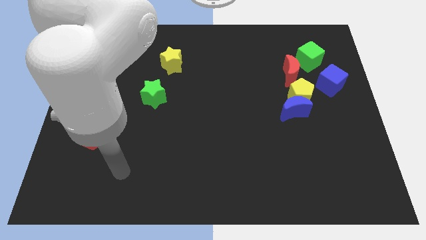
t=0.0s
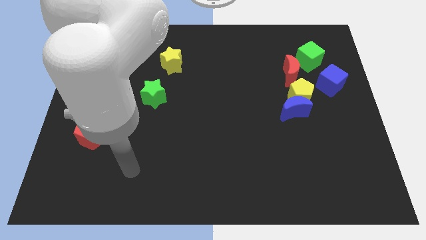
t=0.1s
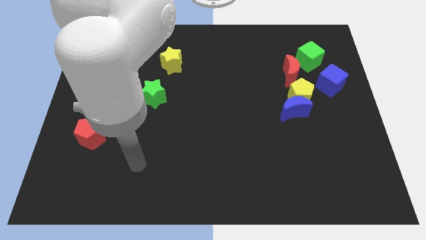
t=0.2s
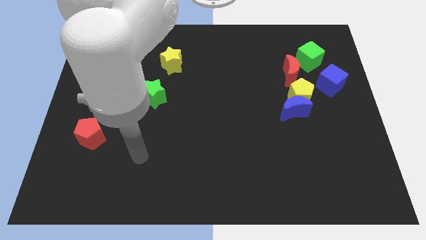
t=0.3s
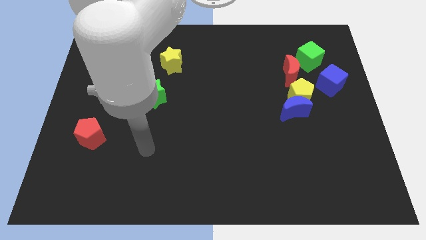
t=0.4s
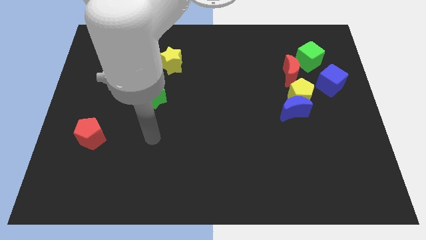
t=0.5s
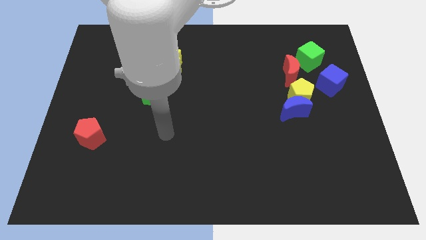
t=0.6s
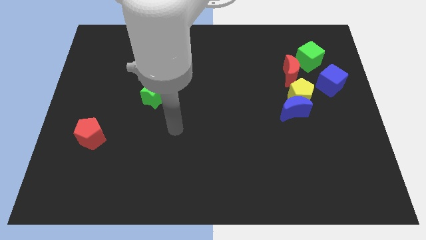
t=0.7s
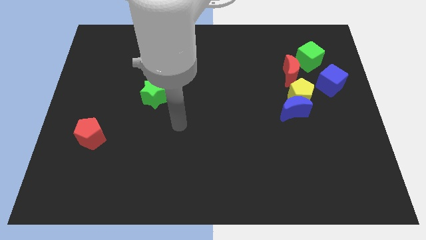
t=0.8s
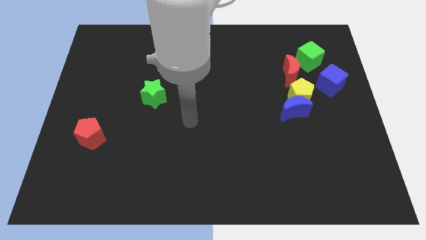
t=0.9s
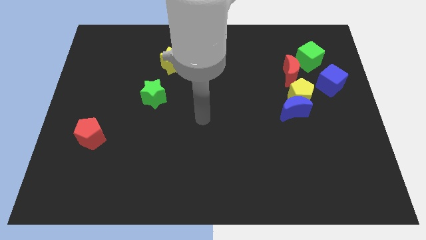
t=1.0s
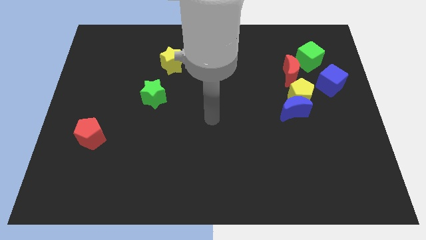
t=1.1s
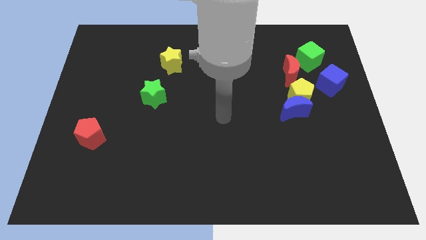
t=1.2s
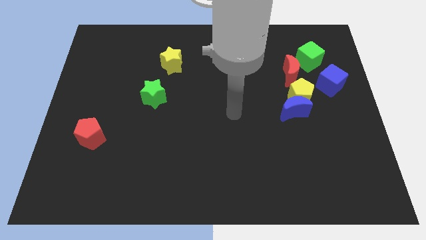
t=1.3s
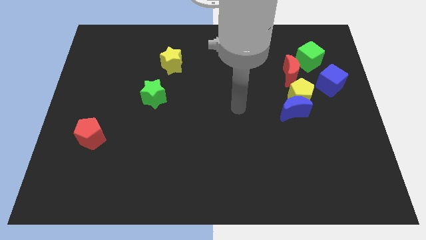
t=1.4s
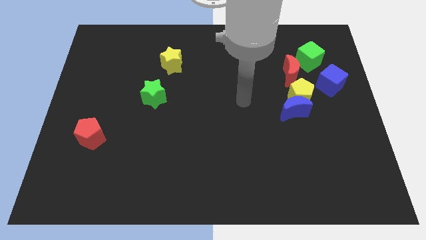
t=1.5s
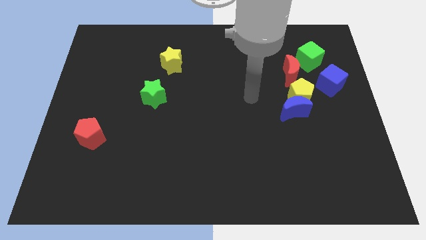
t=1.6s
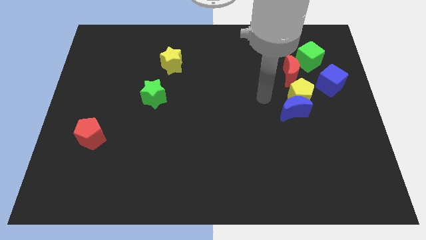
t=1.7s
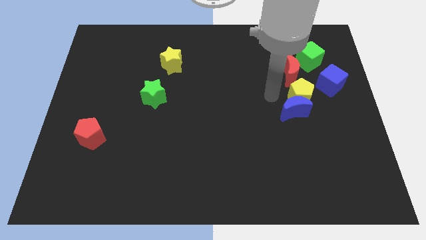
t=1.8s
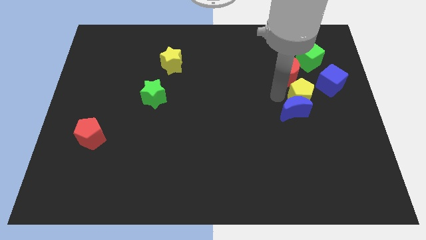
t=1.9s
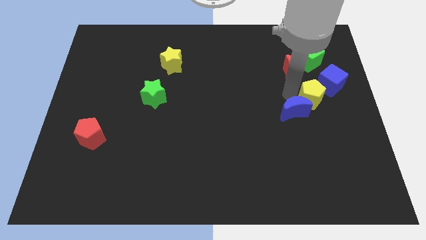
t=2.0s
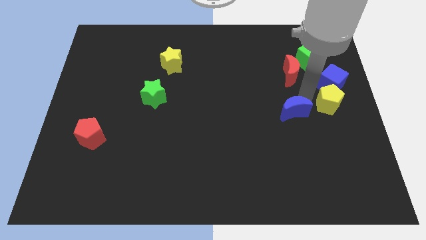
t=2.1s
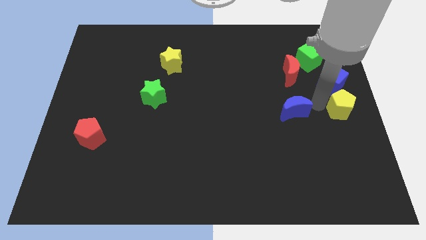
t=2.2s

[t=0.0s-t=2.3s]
pull the blue moon apart from the yellow pentagon

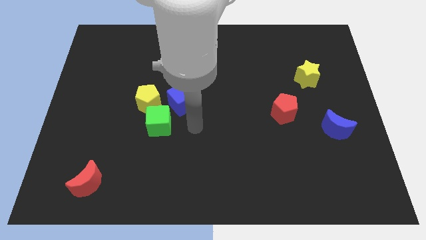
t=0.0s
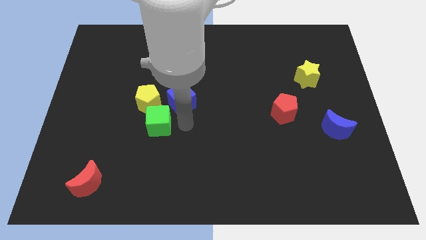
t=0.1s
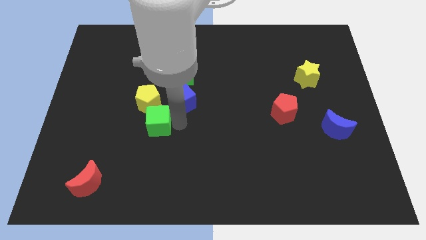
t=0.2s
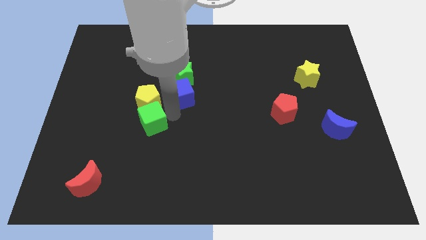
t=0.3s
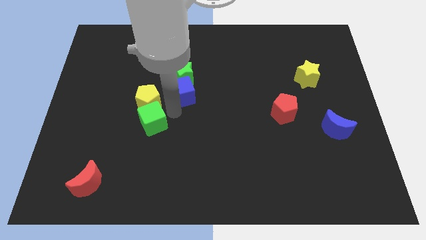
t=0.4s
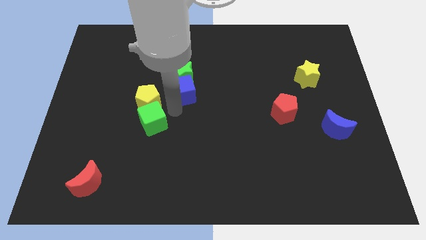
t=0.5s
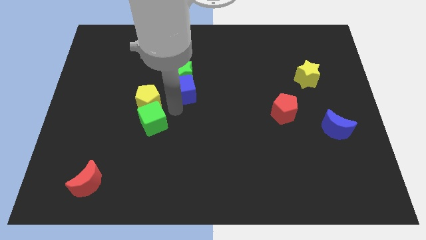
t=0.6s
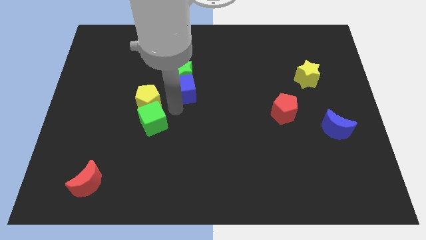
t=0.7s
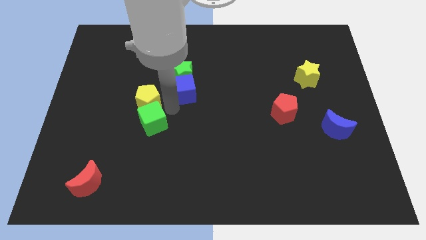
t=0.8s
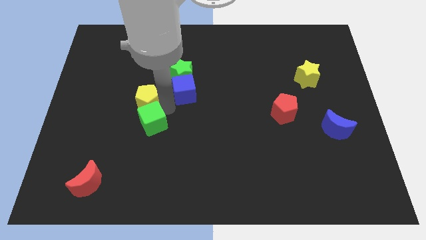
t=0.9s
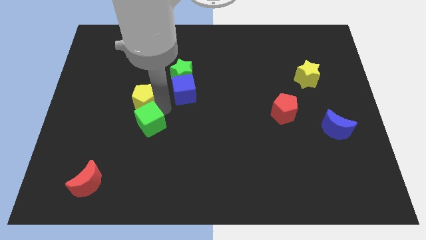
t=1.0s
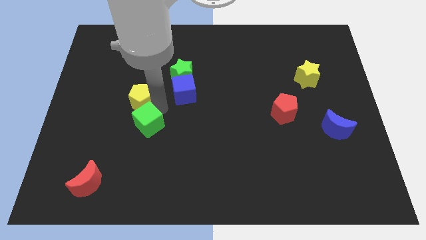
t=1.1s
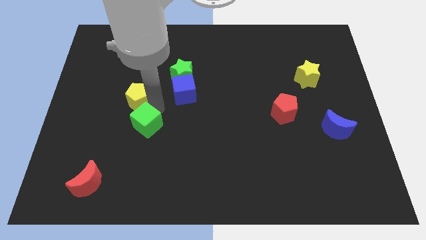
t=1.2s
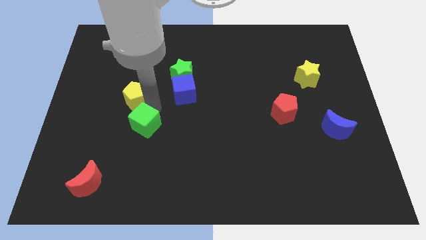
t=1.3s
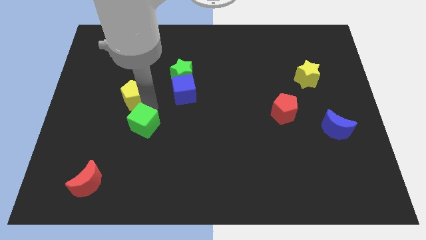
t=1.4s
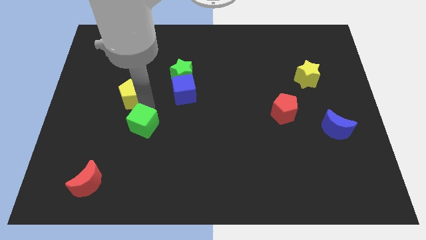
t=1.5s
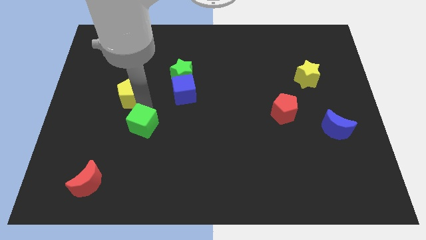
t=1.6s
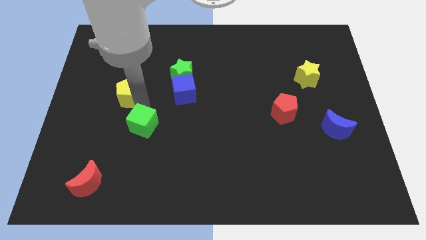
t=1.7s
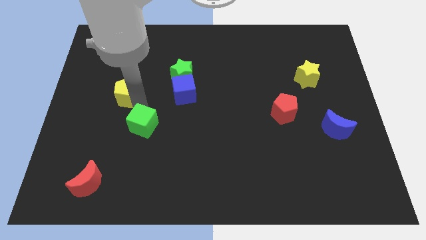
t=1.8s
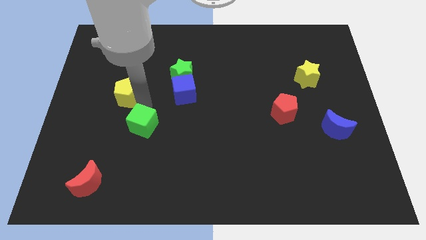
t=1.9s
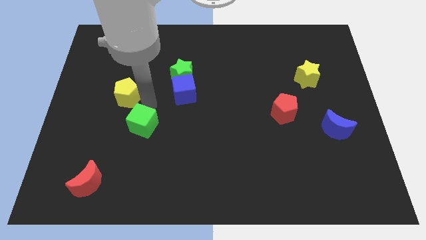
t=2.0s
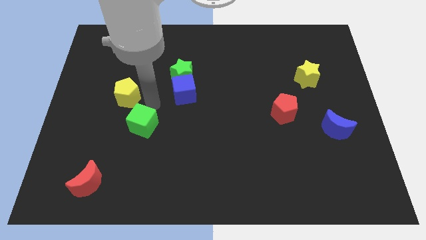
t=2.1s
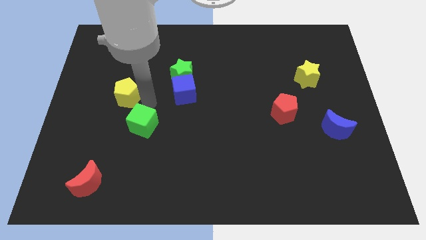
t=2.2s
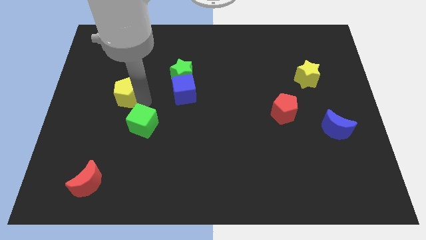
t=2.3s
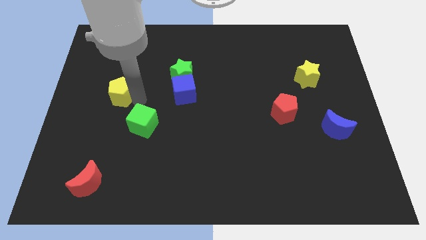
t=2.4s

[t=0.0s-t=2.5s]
pull the yellow pentagon apart from the green cube and blue cube

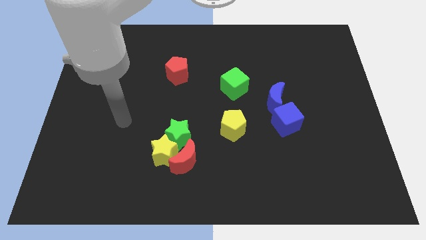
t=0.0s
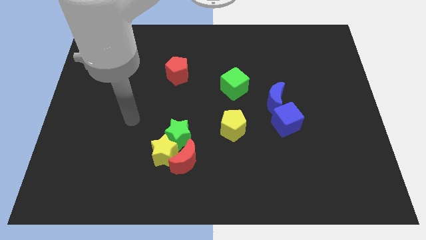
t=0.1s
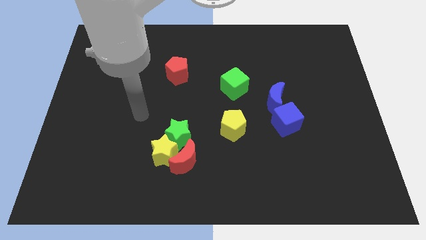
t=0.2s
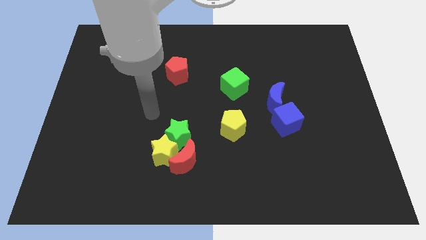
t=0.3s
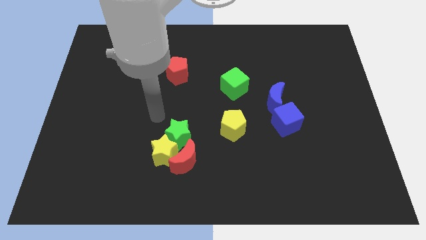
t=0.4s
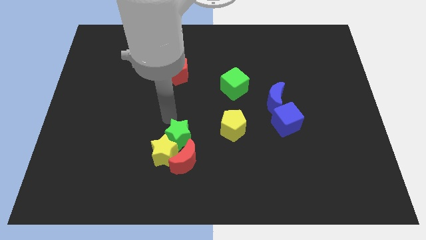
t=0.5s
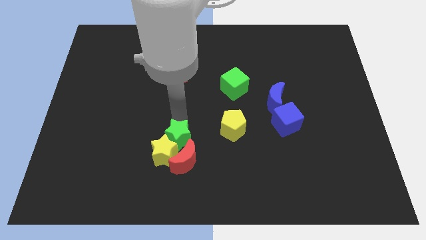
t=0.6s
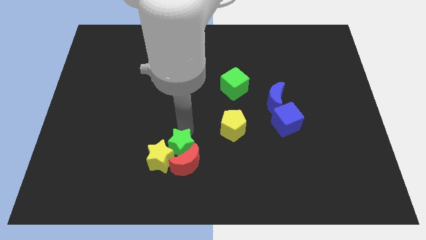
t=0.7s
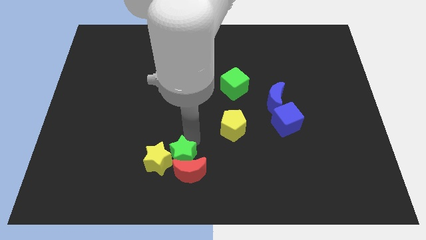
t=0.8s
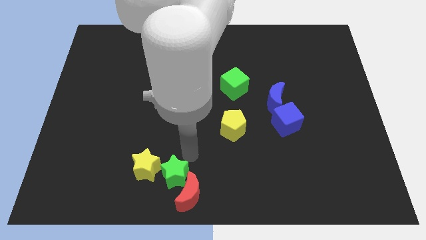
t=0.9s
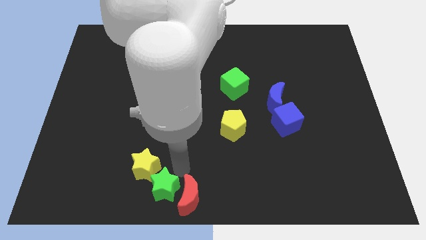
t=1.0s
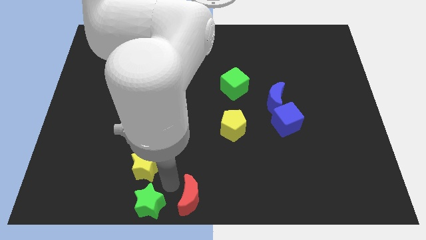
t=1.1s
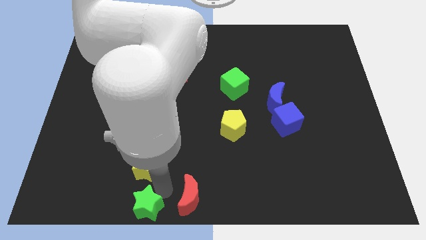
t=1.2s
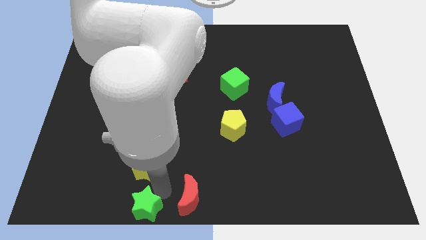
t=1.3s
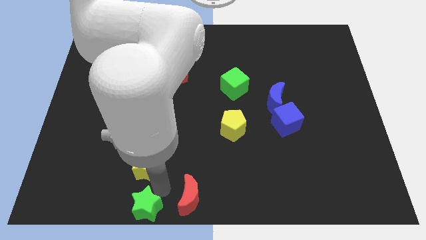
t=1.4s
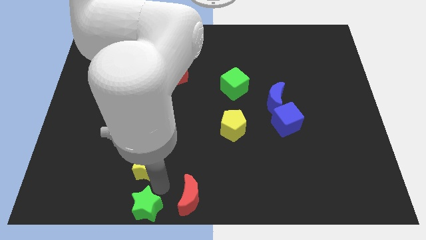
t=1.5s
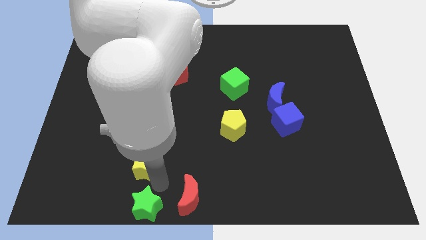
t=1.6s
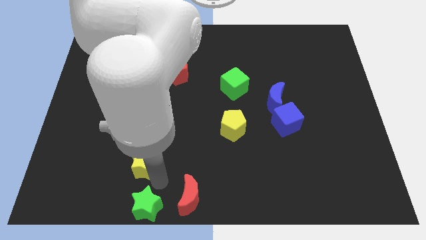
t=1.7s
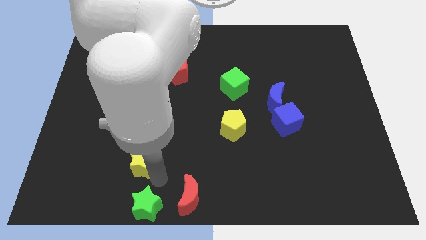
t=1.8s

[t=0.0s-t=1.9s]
move the yellow star away from the green star and red moon

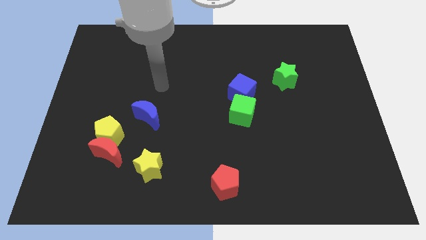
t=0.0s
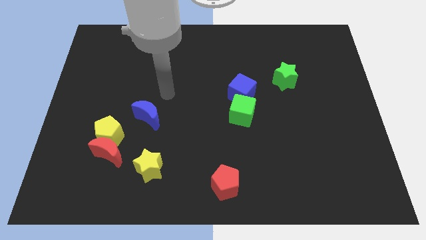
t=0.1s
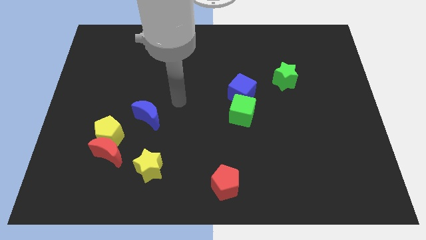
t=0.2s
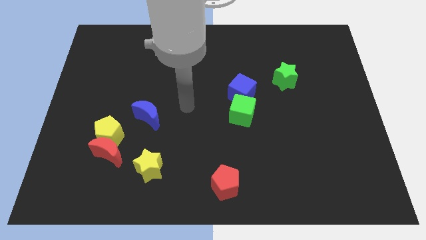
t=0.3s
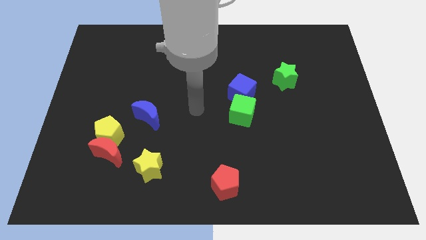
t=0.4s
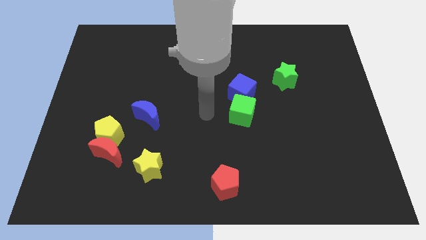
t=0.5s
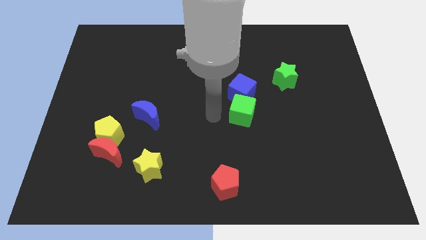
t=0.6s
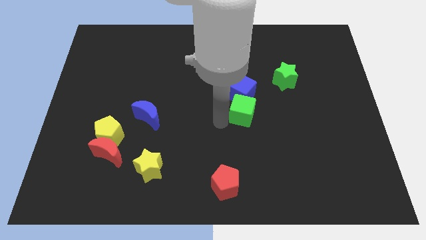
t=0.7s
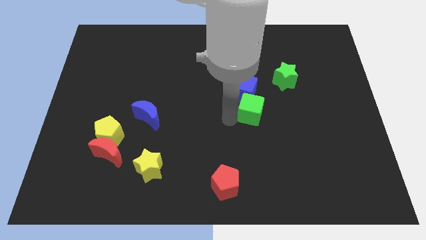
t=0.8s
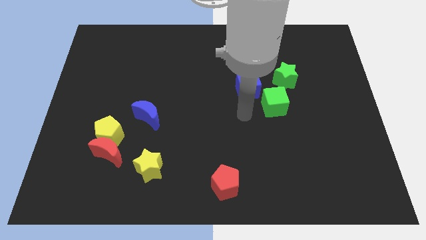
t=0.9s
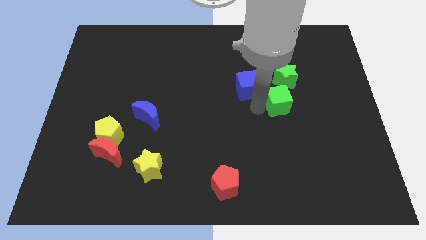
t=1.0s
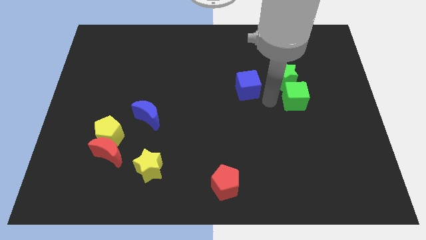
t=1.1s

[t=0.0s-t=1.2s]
move the blue cube away from the green cube

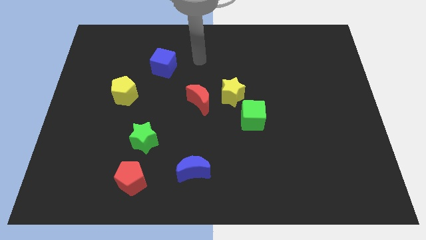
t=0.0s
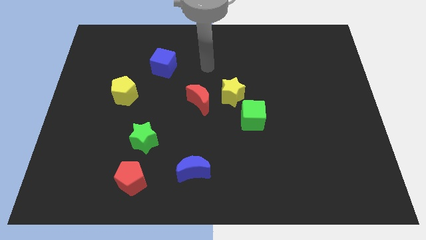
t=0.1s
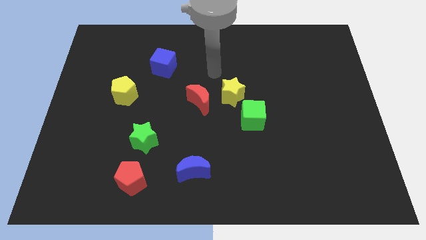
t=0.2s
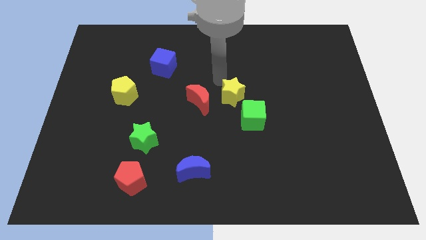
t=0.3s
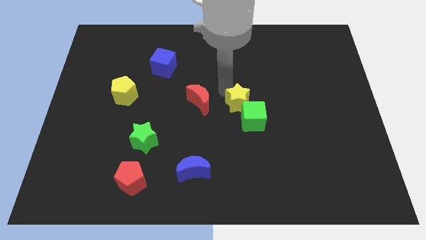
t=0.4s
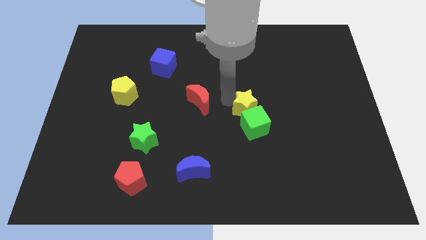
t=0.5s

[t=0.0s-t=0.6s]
move the red moon away from the yellow star

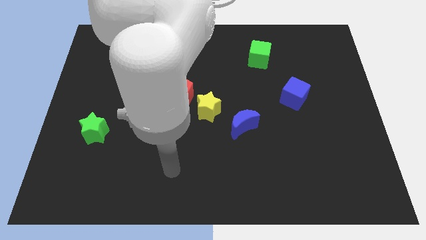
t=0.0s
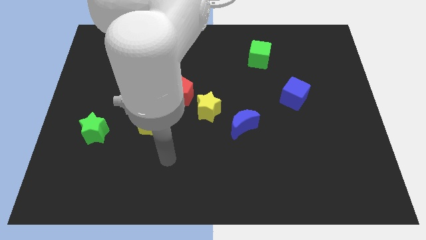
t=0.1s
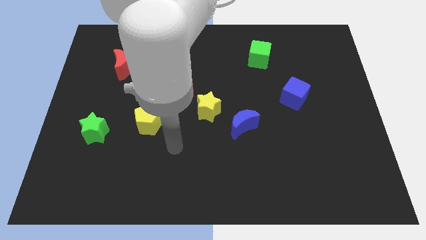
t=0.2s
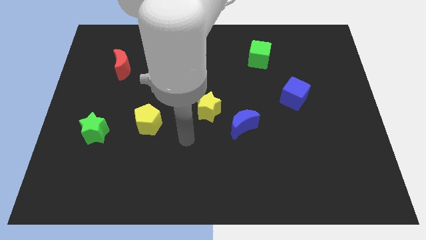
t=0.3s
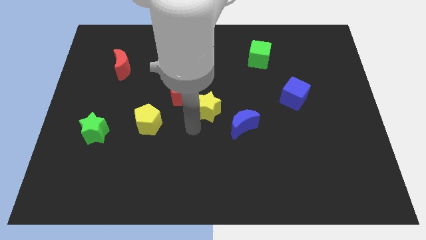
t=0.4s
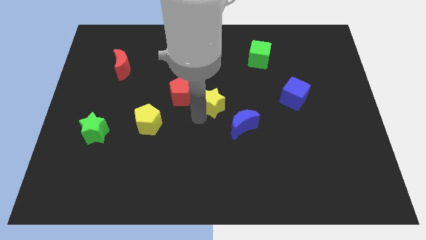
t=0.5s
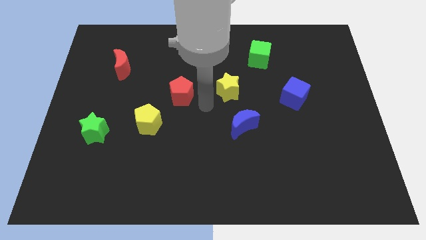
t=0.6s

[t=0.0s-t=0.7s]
move the red pentagon away from the yellow star
